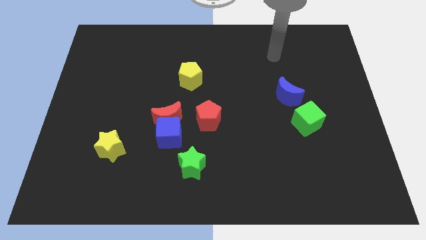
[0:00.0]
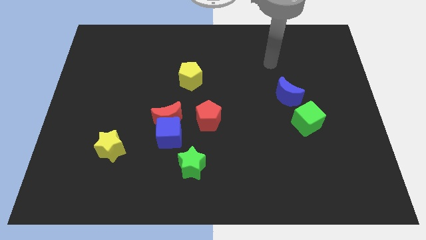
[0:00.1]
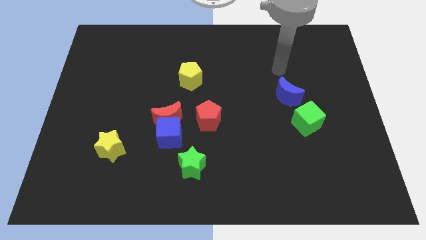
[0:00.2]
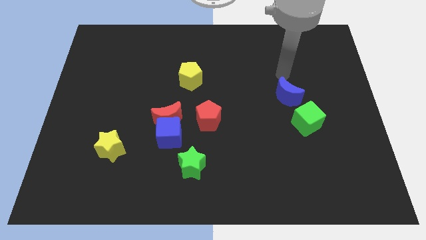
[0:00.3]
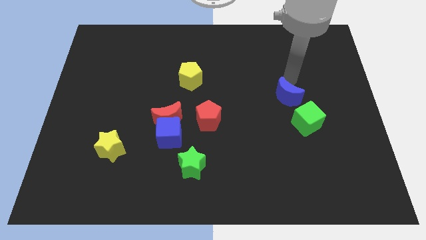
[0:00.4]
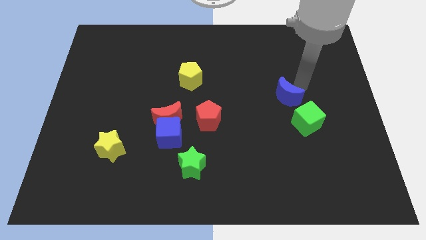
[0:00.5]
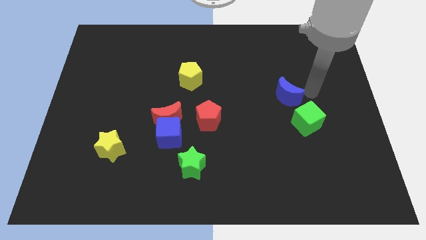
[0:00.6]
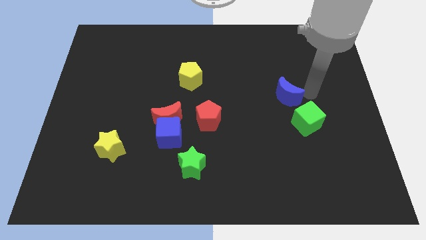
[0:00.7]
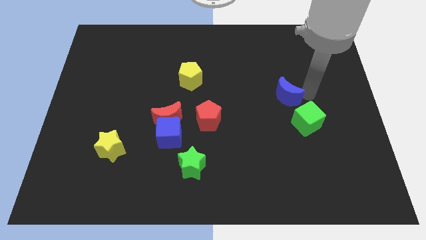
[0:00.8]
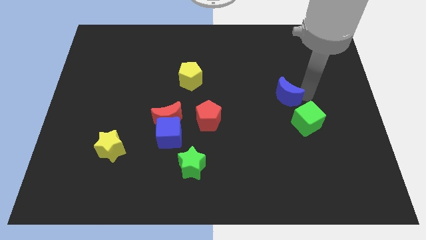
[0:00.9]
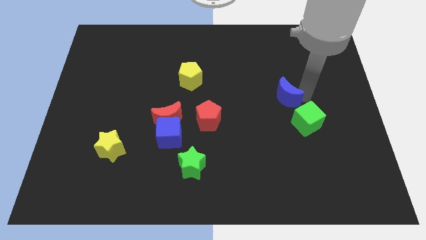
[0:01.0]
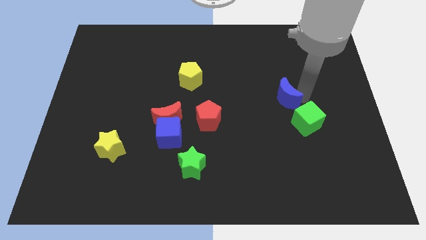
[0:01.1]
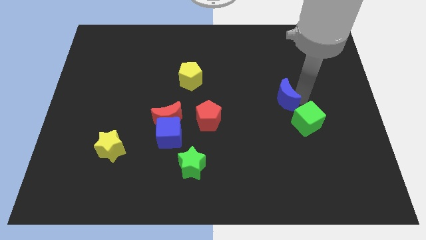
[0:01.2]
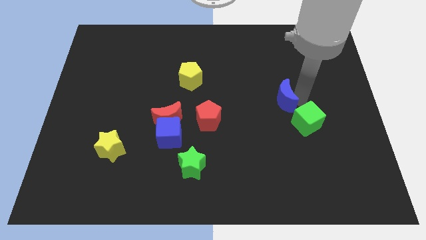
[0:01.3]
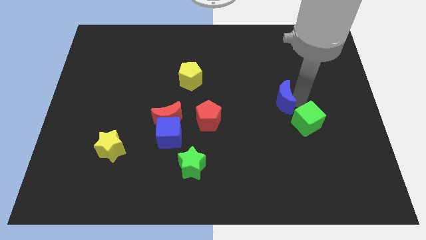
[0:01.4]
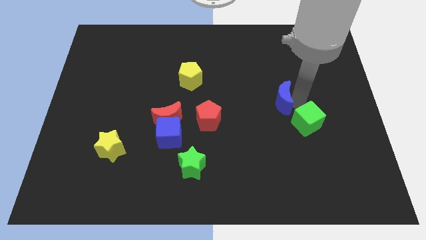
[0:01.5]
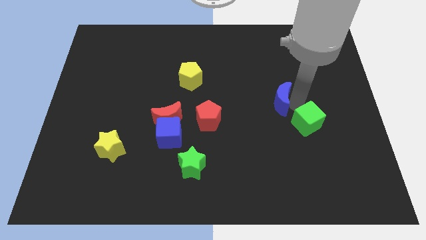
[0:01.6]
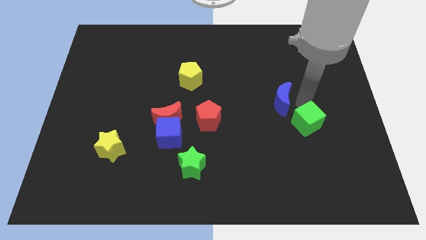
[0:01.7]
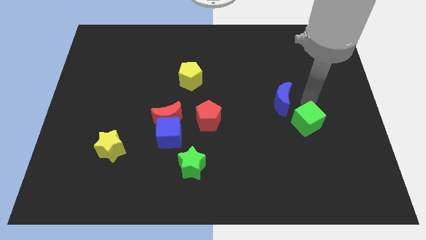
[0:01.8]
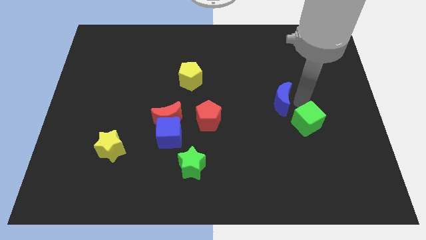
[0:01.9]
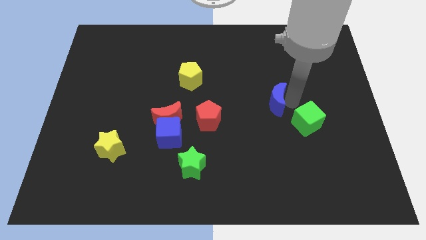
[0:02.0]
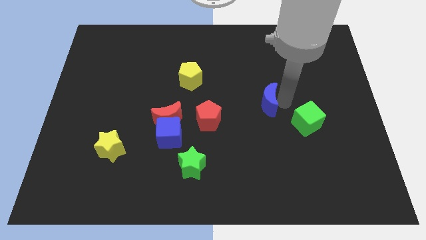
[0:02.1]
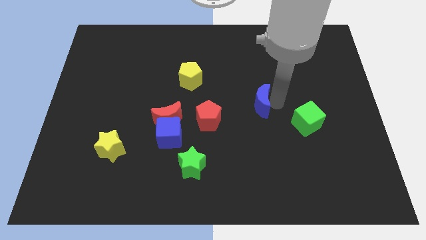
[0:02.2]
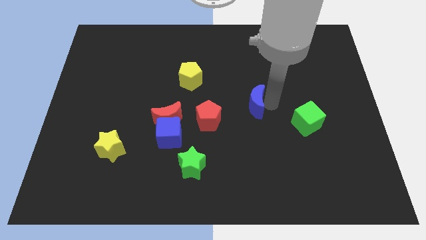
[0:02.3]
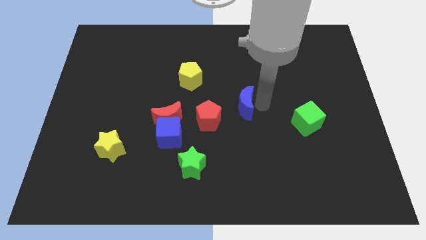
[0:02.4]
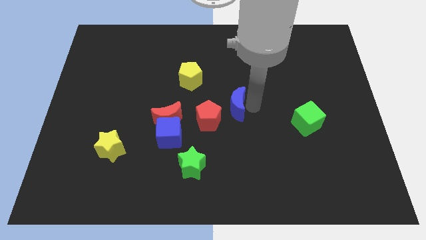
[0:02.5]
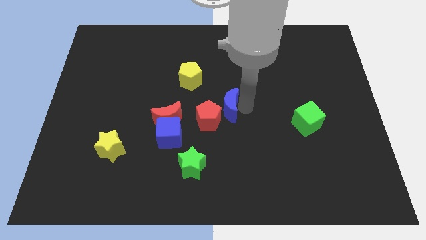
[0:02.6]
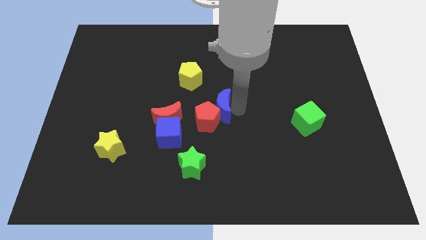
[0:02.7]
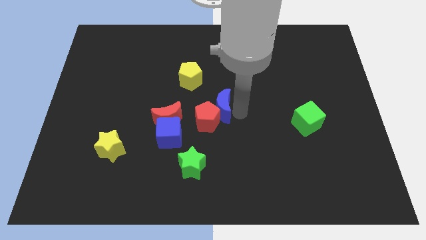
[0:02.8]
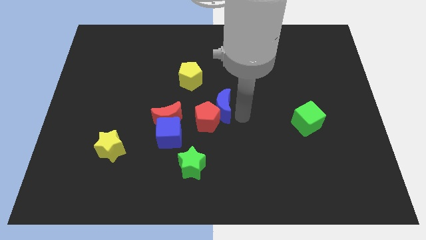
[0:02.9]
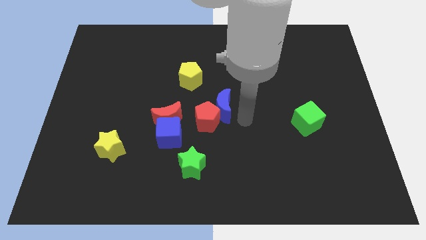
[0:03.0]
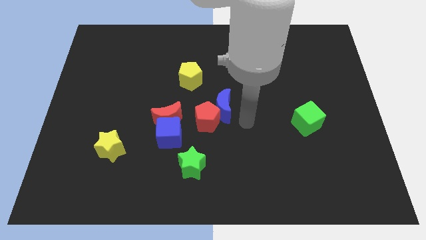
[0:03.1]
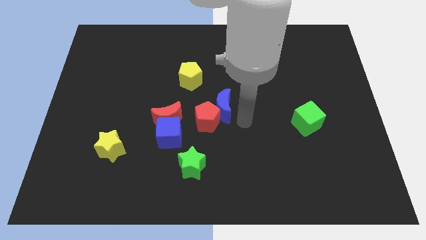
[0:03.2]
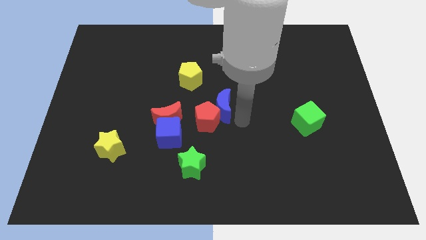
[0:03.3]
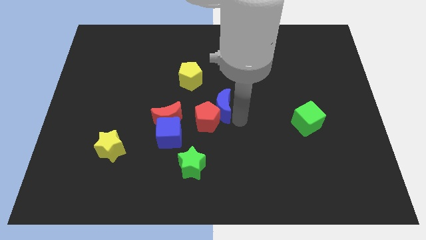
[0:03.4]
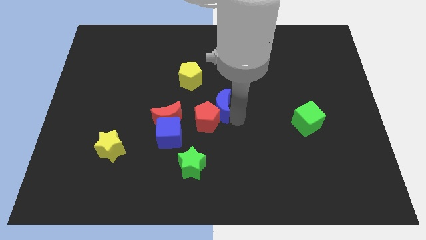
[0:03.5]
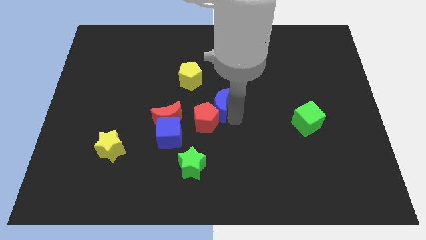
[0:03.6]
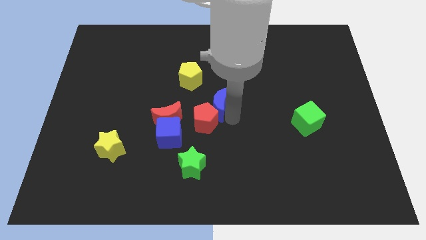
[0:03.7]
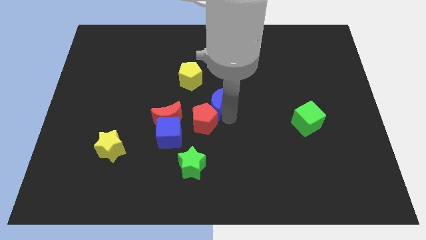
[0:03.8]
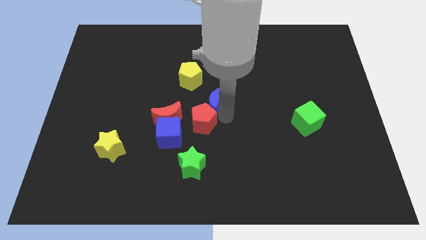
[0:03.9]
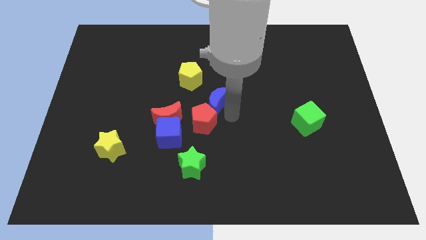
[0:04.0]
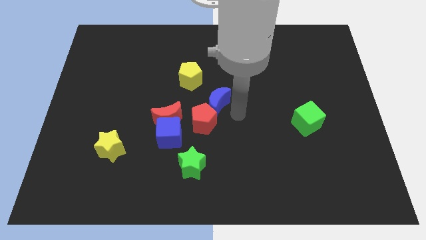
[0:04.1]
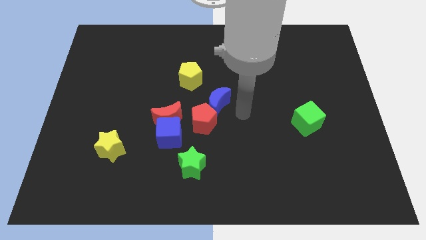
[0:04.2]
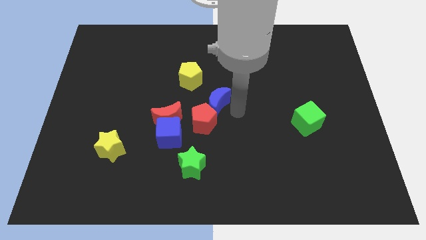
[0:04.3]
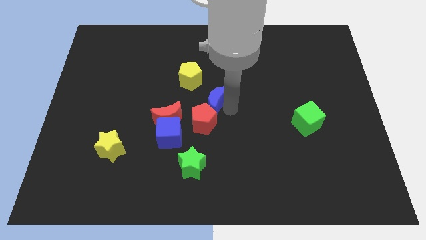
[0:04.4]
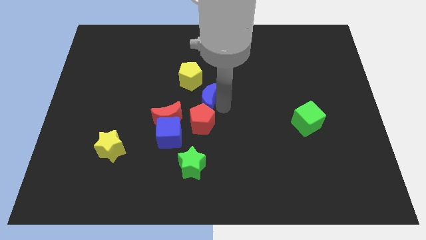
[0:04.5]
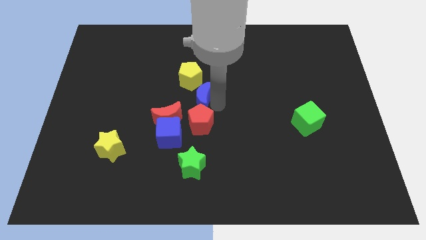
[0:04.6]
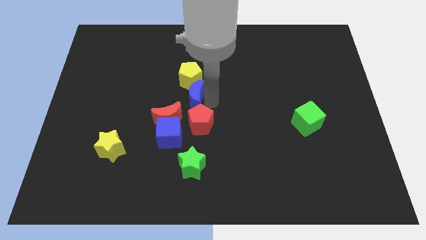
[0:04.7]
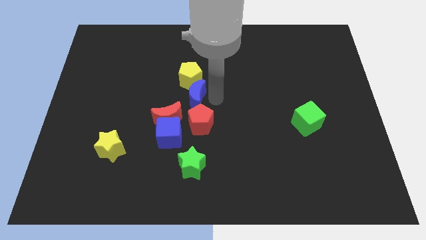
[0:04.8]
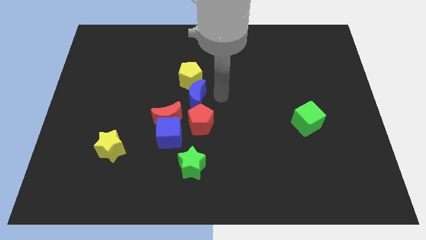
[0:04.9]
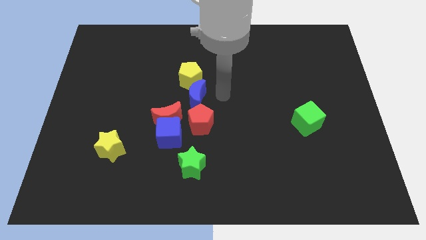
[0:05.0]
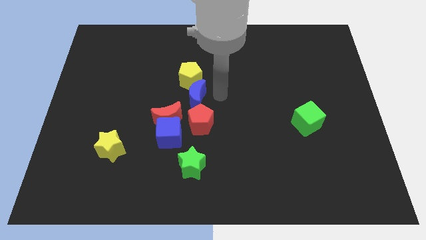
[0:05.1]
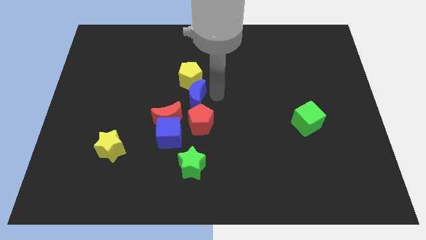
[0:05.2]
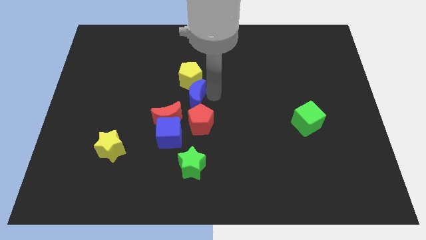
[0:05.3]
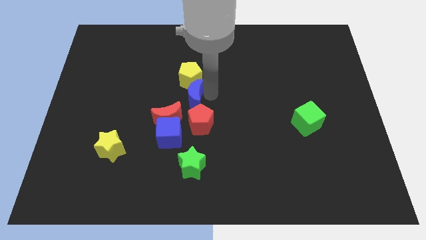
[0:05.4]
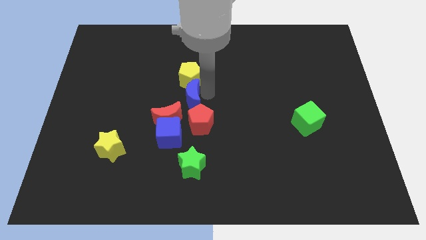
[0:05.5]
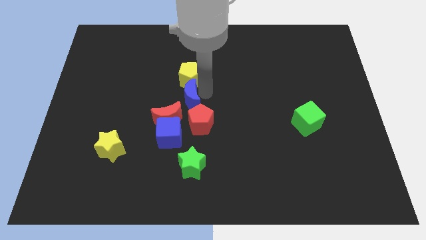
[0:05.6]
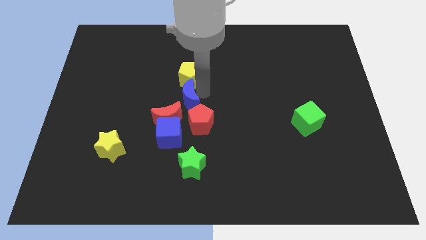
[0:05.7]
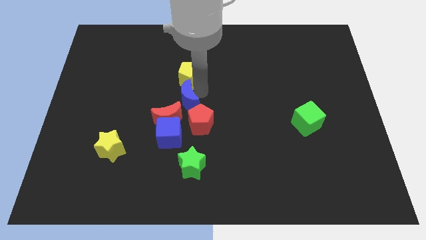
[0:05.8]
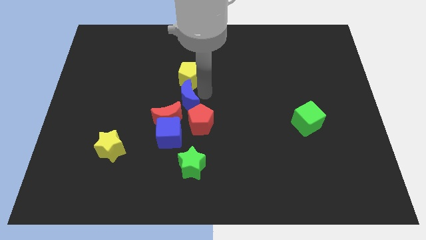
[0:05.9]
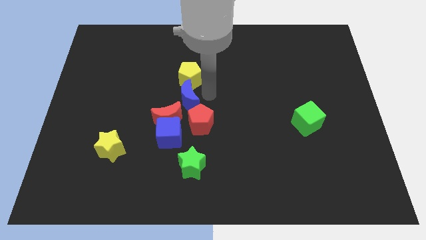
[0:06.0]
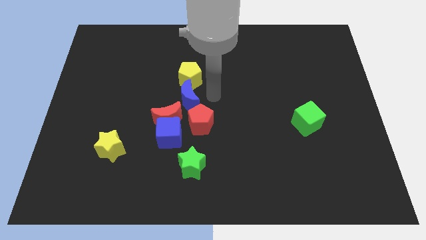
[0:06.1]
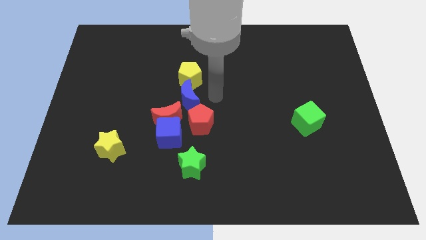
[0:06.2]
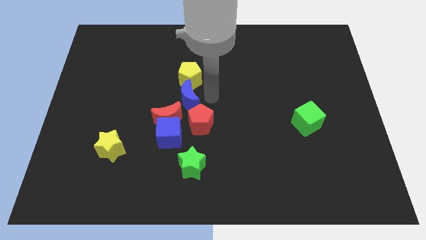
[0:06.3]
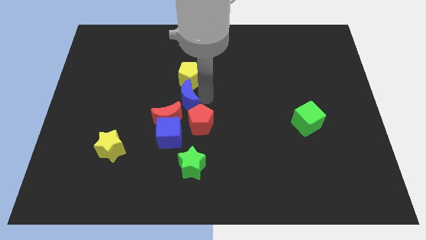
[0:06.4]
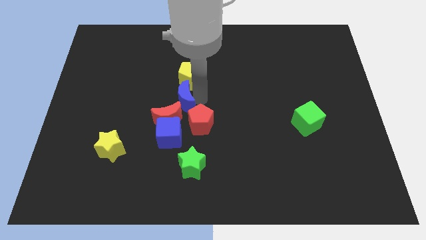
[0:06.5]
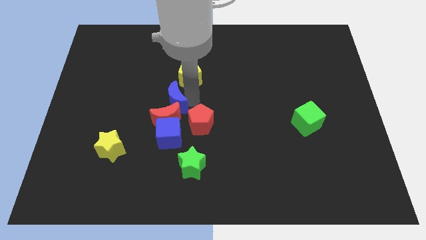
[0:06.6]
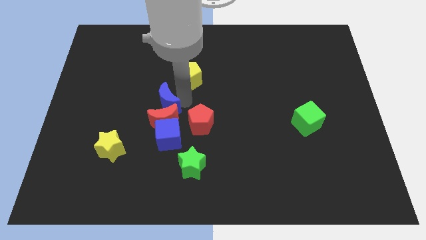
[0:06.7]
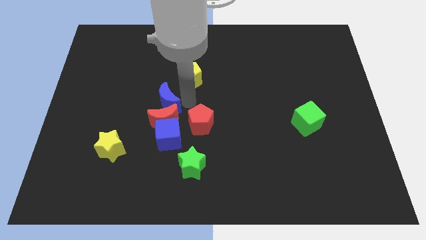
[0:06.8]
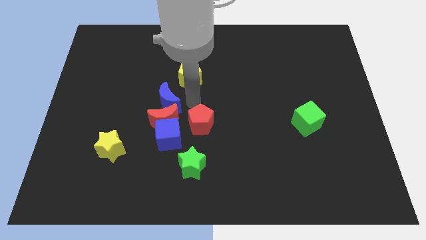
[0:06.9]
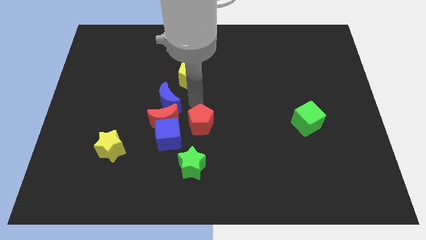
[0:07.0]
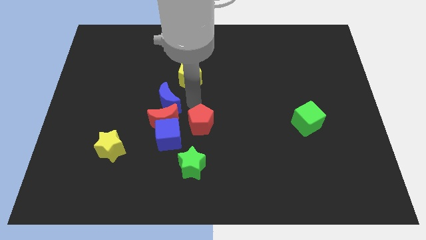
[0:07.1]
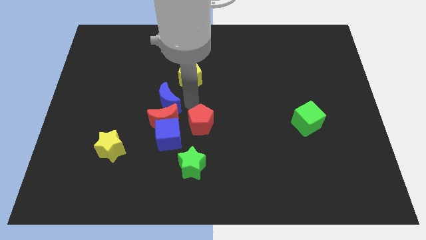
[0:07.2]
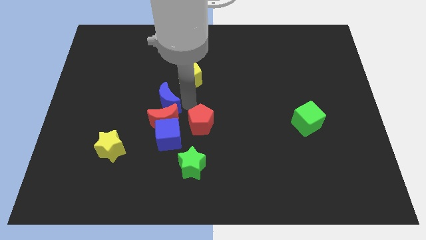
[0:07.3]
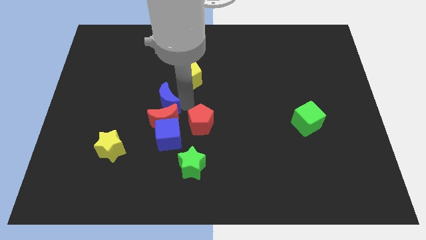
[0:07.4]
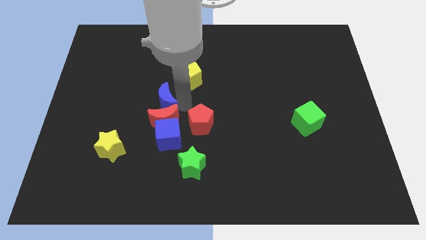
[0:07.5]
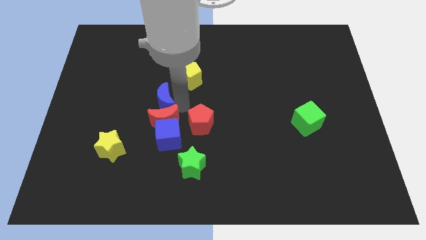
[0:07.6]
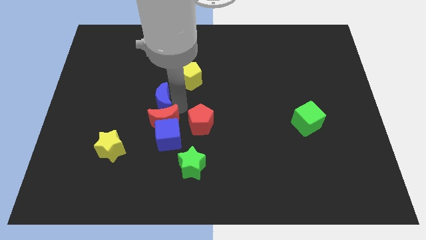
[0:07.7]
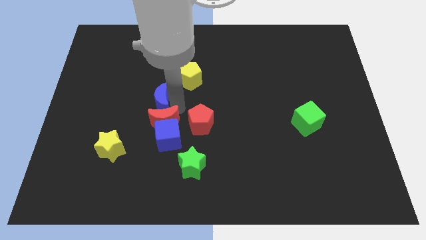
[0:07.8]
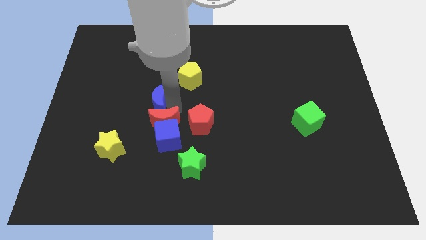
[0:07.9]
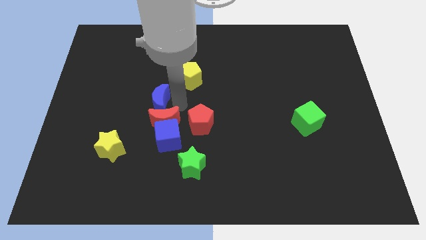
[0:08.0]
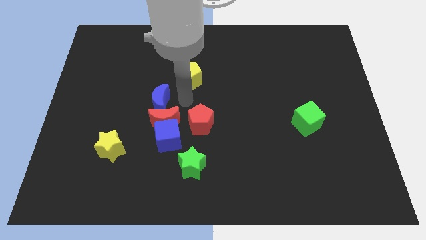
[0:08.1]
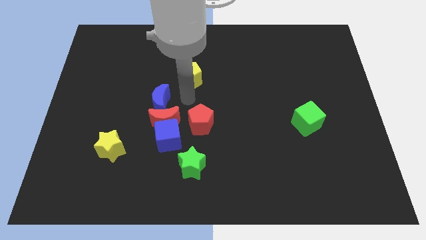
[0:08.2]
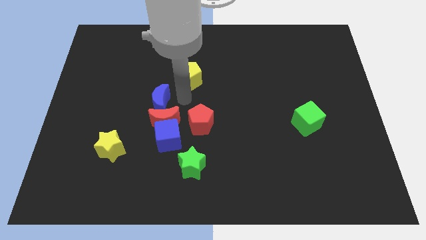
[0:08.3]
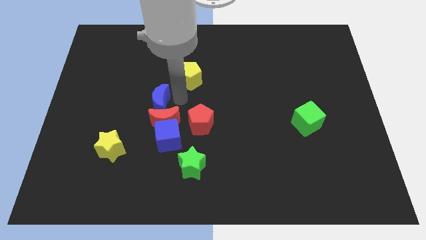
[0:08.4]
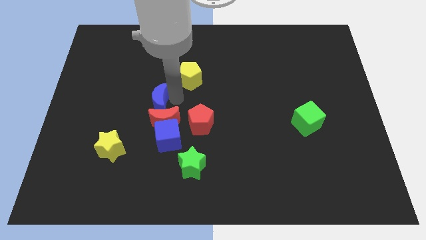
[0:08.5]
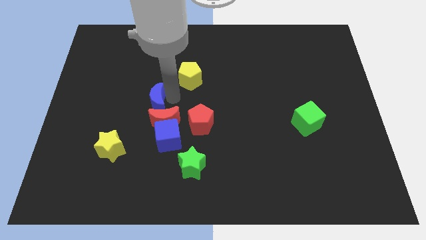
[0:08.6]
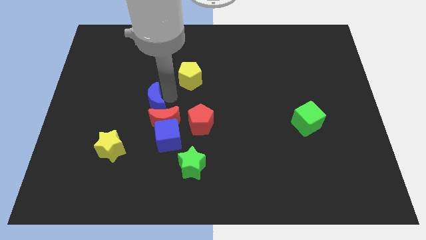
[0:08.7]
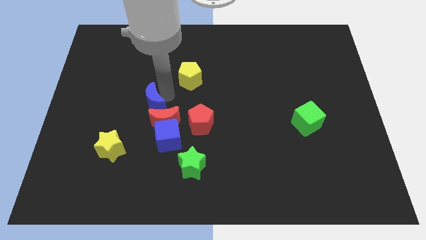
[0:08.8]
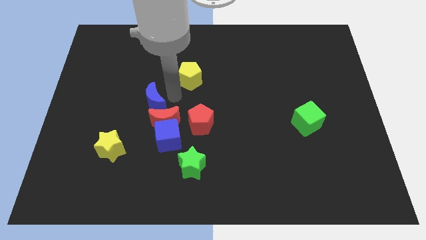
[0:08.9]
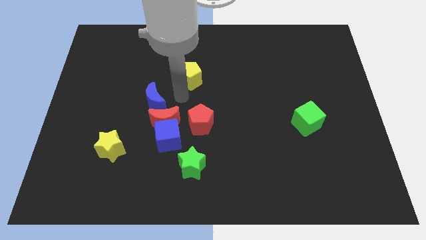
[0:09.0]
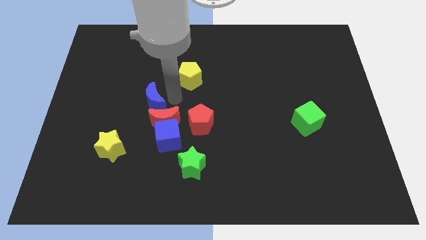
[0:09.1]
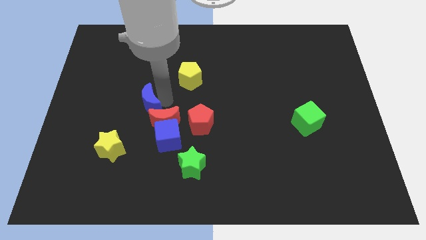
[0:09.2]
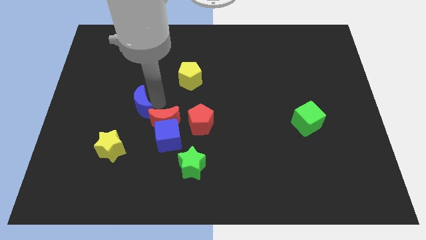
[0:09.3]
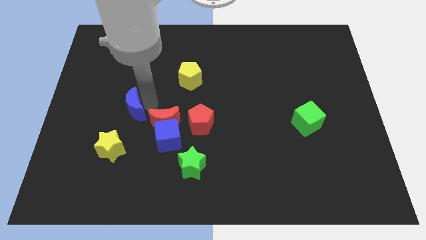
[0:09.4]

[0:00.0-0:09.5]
put the blue moon to the top side of the yellow star
